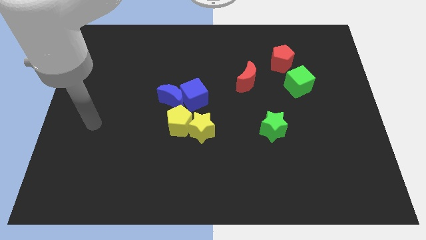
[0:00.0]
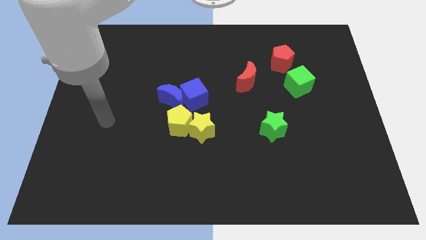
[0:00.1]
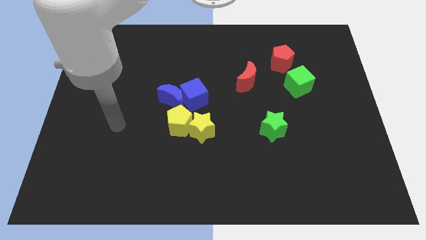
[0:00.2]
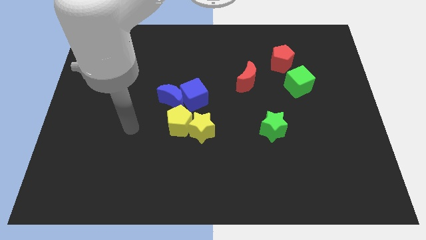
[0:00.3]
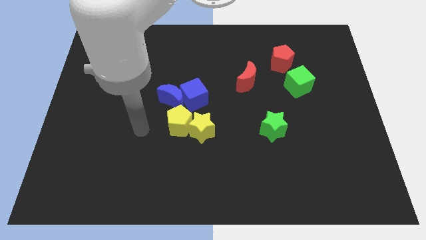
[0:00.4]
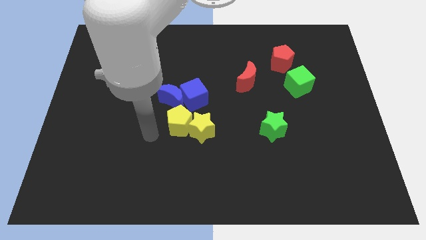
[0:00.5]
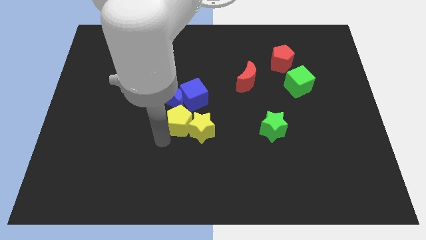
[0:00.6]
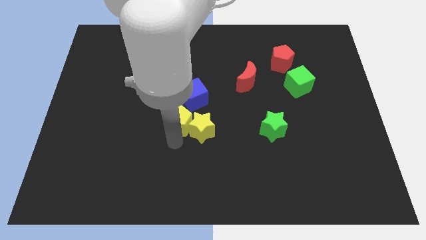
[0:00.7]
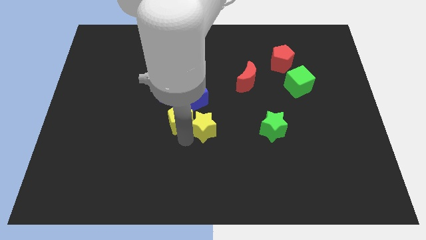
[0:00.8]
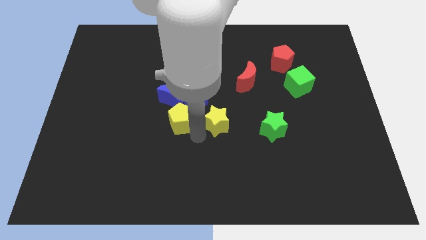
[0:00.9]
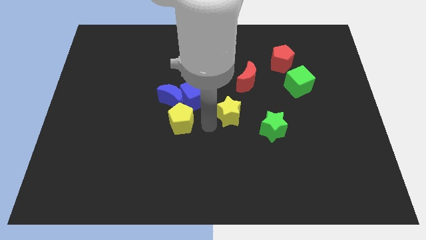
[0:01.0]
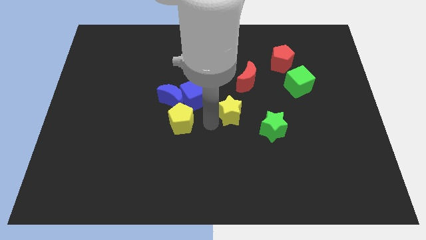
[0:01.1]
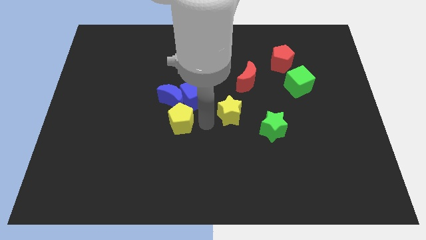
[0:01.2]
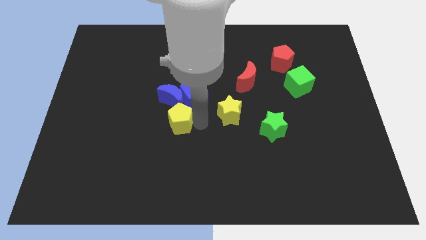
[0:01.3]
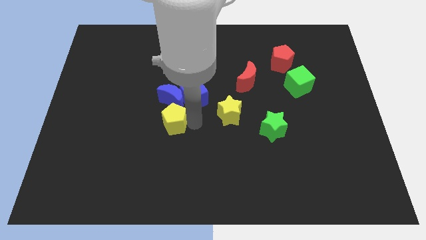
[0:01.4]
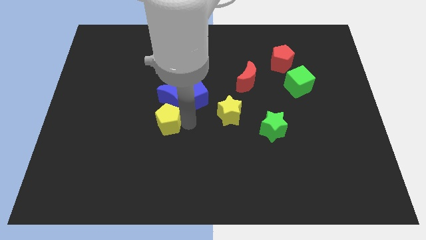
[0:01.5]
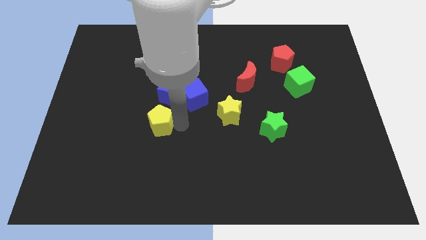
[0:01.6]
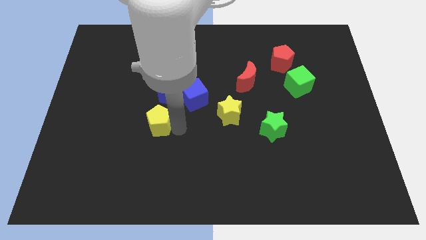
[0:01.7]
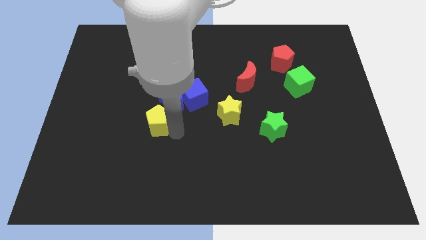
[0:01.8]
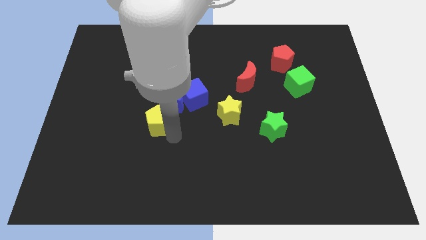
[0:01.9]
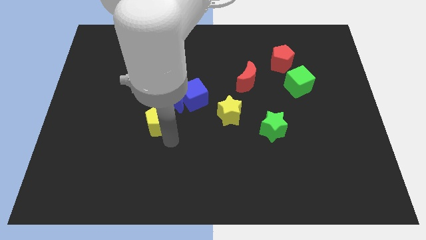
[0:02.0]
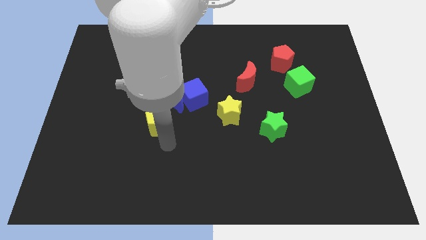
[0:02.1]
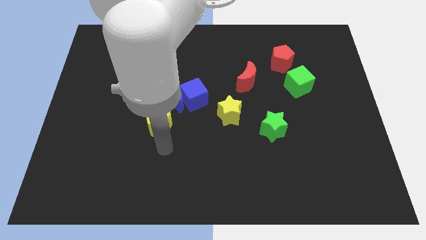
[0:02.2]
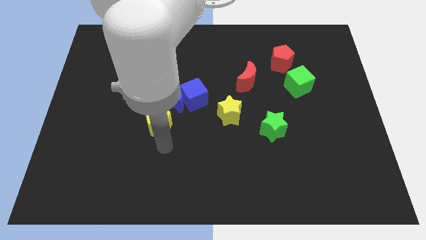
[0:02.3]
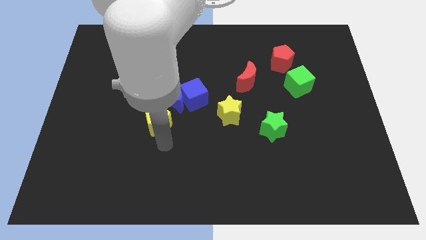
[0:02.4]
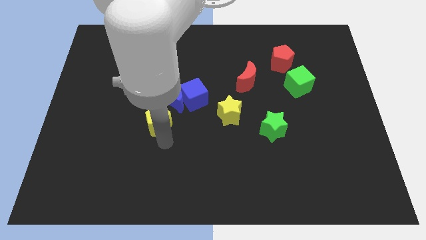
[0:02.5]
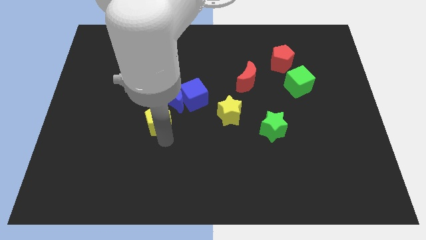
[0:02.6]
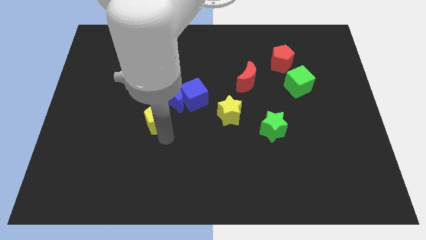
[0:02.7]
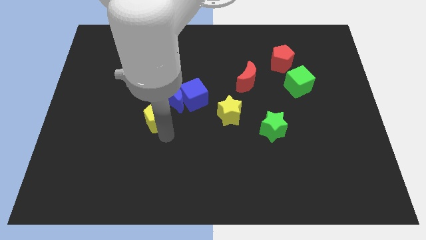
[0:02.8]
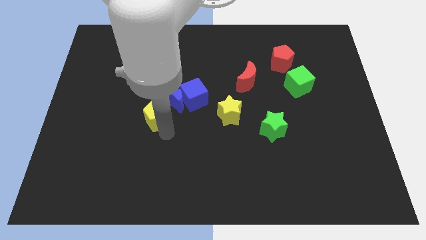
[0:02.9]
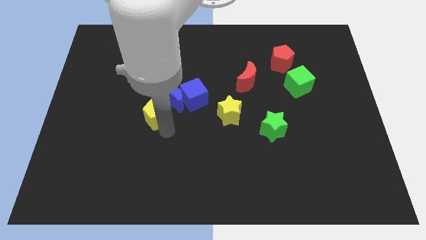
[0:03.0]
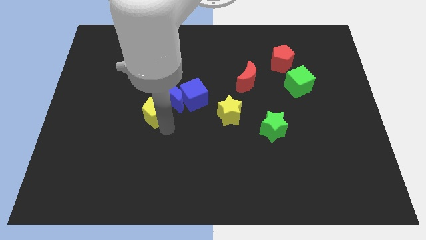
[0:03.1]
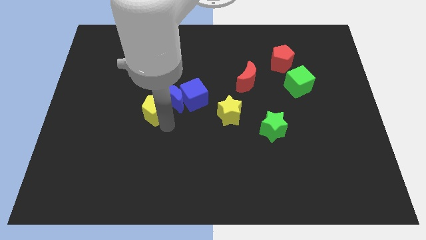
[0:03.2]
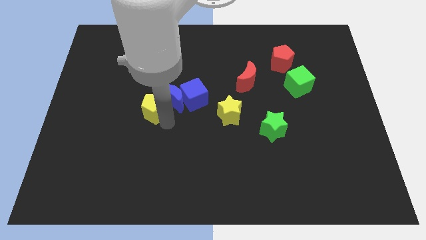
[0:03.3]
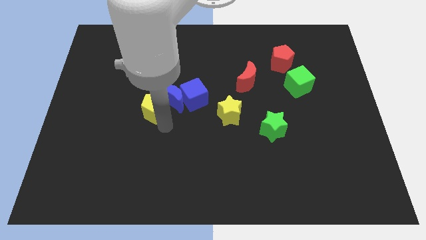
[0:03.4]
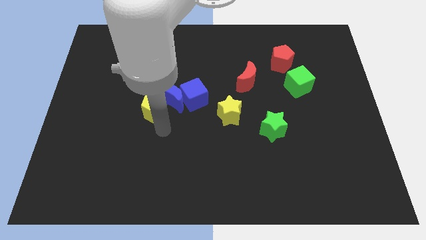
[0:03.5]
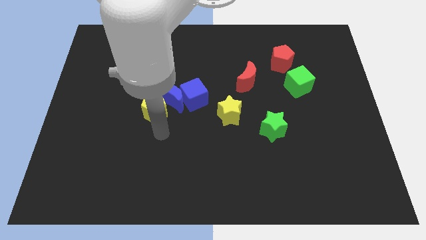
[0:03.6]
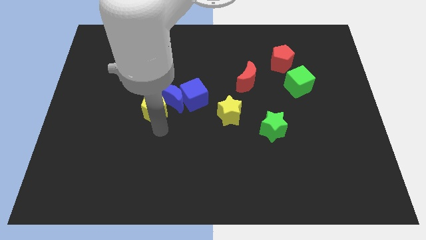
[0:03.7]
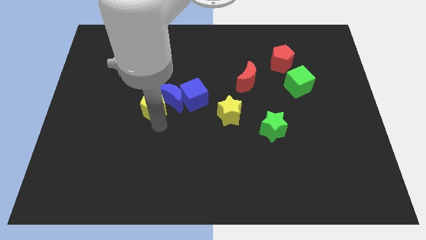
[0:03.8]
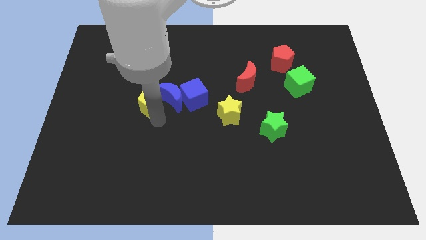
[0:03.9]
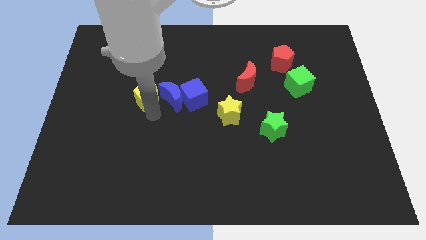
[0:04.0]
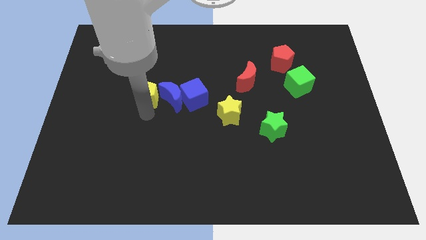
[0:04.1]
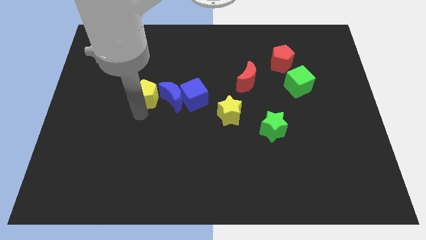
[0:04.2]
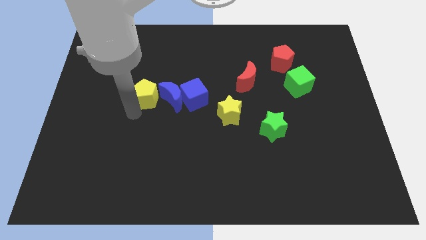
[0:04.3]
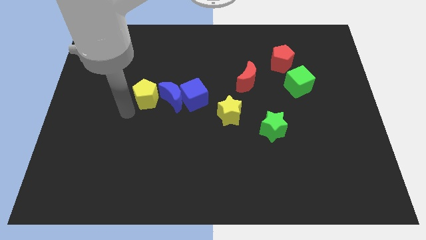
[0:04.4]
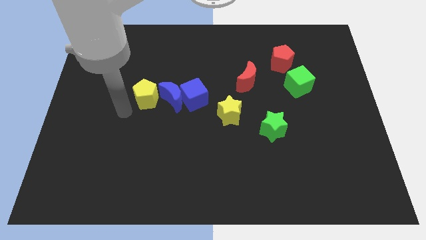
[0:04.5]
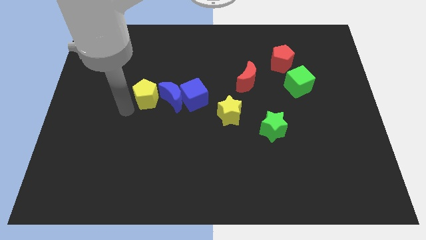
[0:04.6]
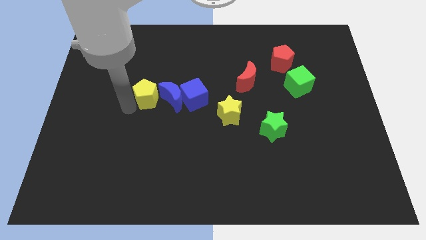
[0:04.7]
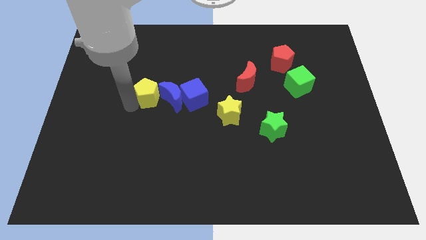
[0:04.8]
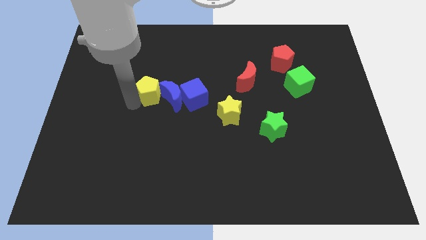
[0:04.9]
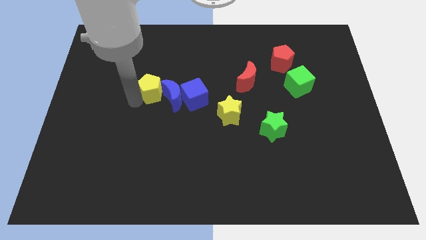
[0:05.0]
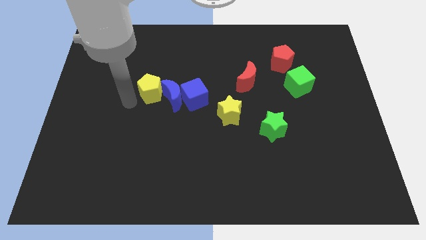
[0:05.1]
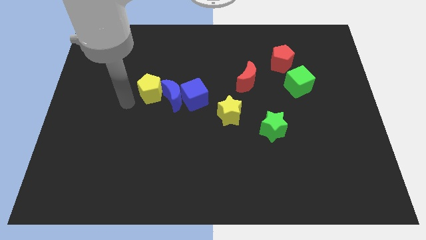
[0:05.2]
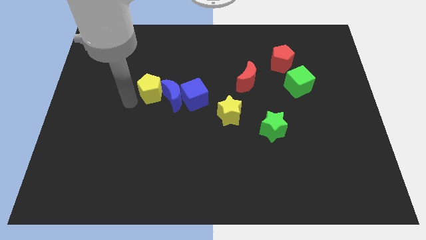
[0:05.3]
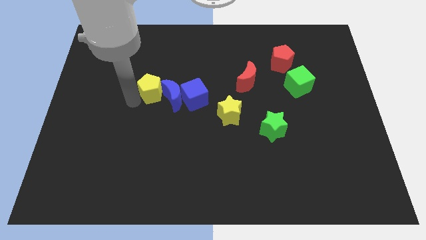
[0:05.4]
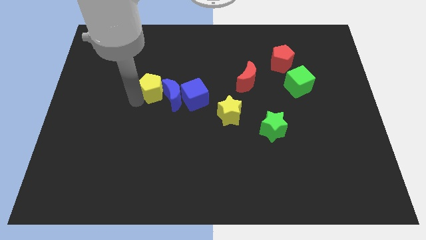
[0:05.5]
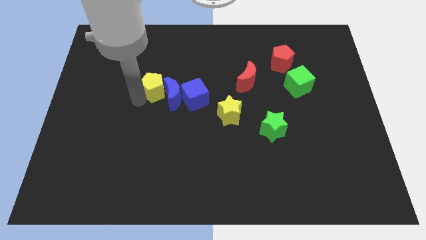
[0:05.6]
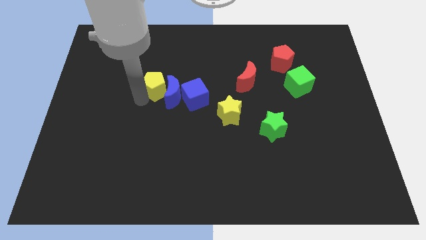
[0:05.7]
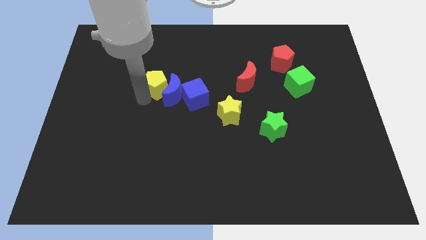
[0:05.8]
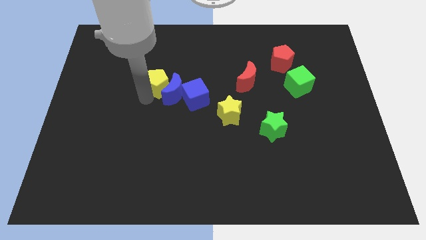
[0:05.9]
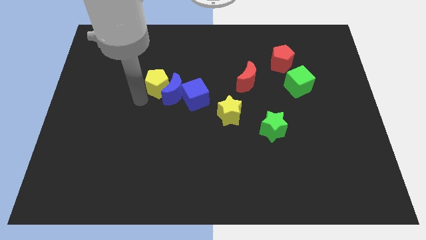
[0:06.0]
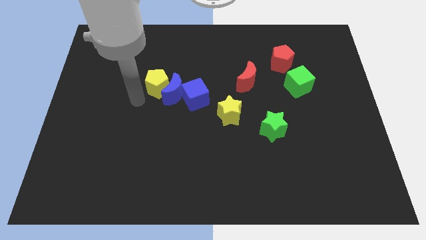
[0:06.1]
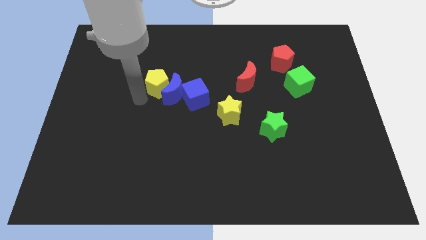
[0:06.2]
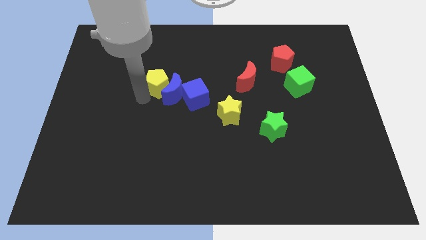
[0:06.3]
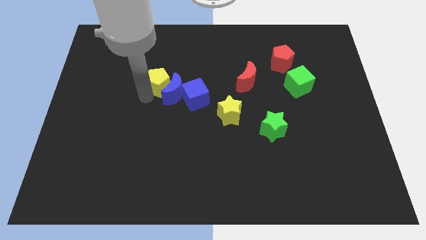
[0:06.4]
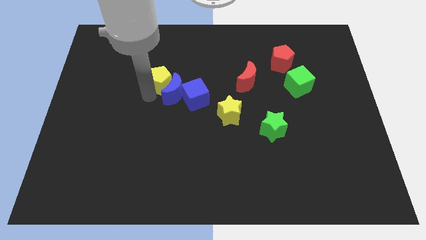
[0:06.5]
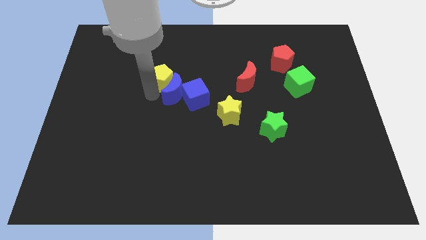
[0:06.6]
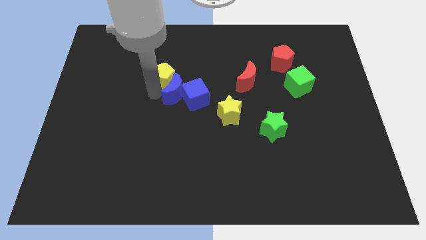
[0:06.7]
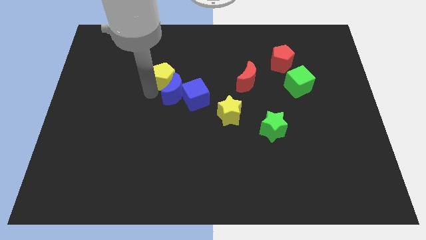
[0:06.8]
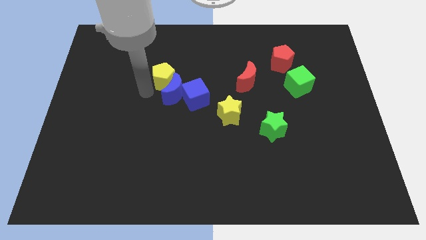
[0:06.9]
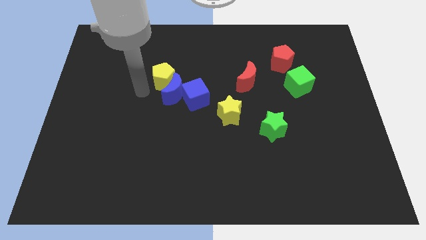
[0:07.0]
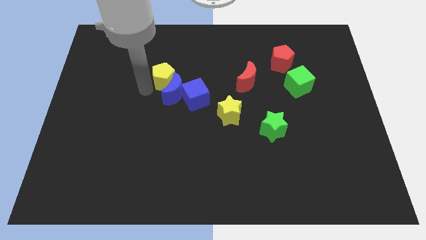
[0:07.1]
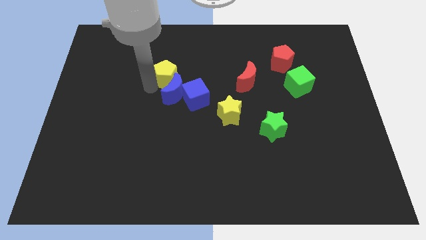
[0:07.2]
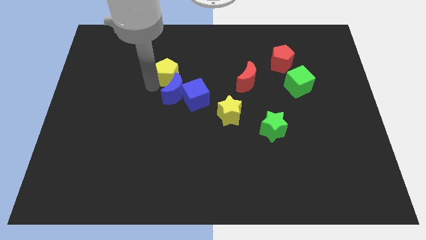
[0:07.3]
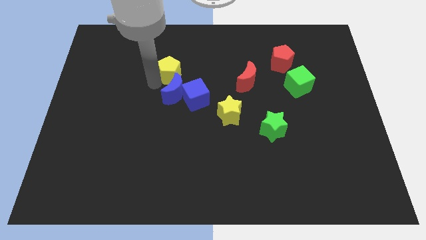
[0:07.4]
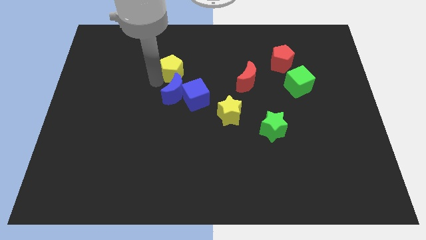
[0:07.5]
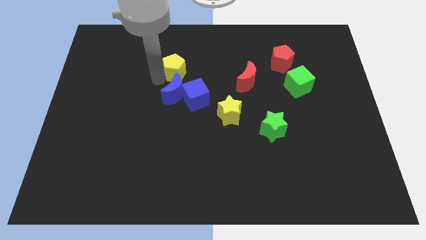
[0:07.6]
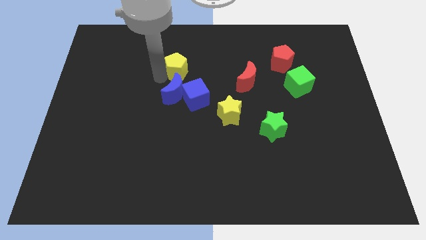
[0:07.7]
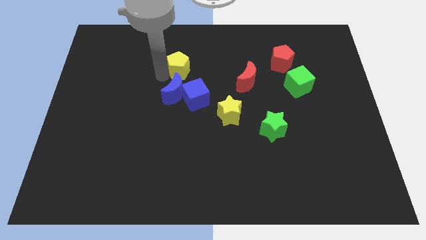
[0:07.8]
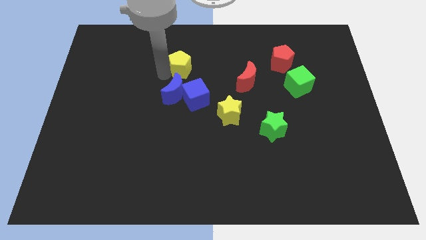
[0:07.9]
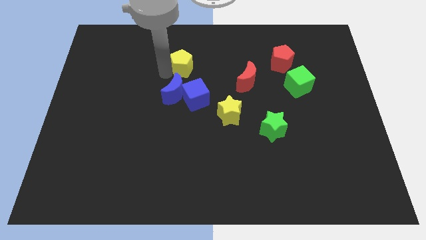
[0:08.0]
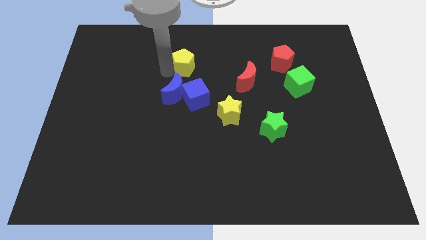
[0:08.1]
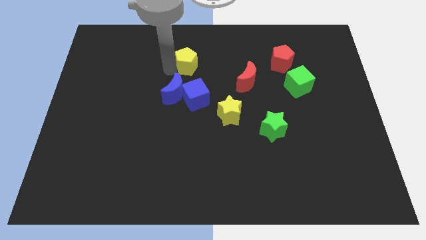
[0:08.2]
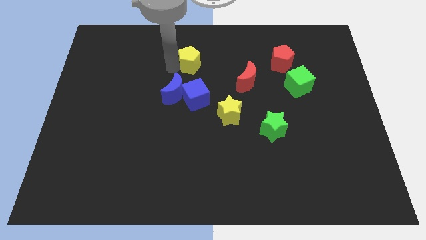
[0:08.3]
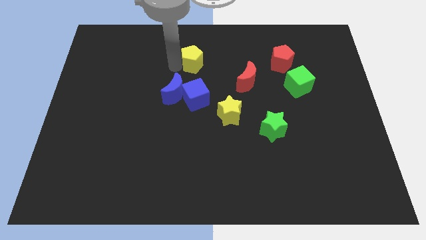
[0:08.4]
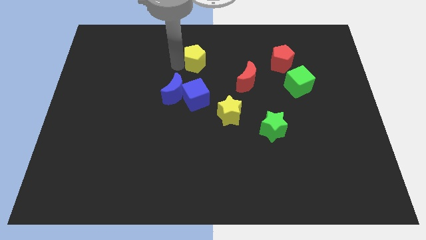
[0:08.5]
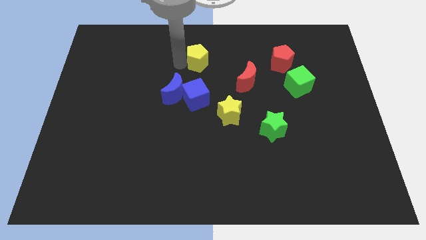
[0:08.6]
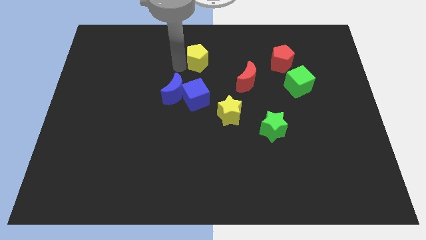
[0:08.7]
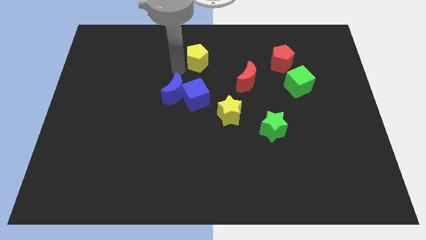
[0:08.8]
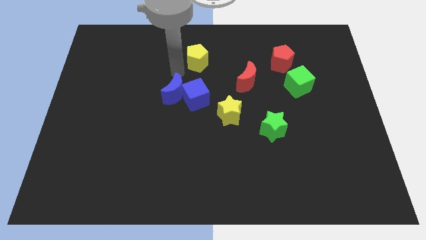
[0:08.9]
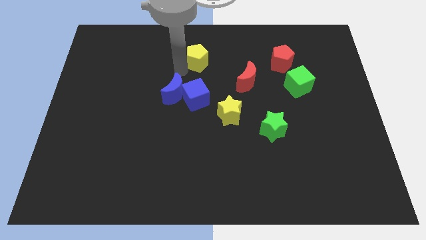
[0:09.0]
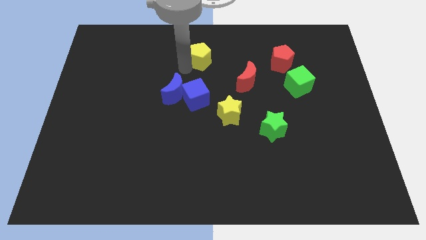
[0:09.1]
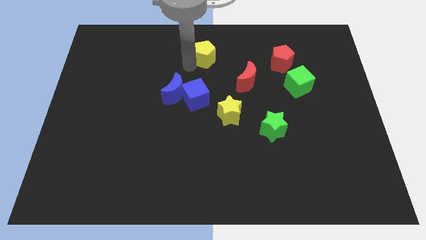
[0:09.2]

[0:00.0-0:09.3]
push the yellow pentagon to the top
